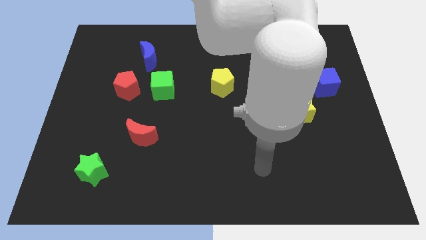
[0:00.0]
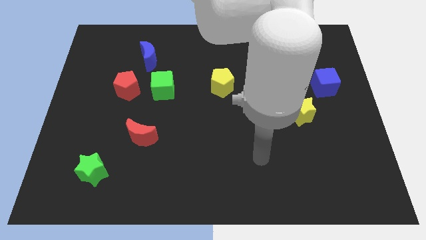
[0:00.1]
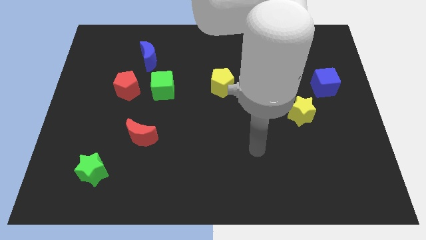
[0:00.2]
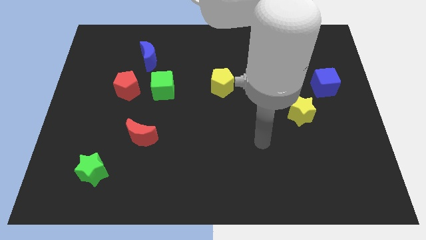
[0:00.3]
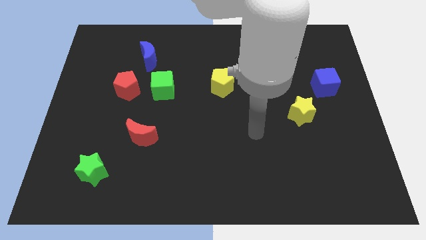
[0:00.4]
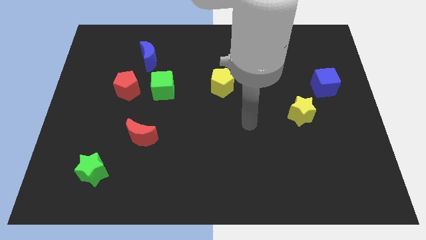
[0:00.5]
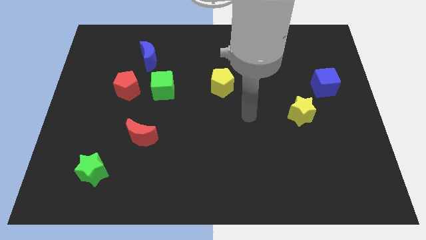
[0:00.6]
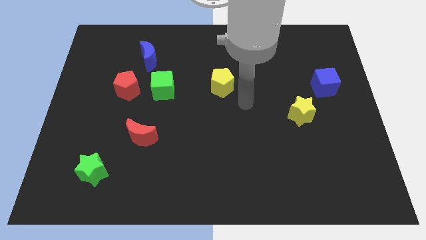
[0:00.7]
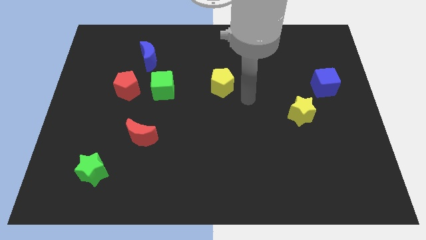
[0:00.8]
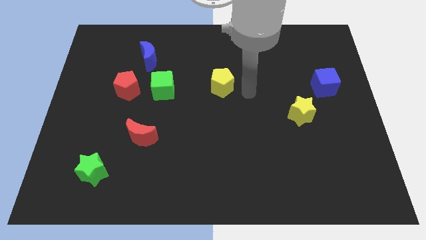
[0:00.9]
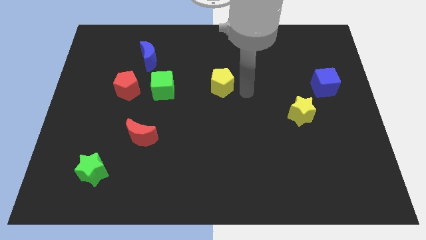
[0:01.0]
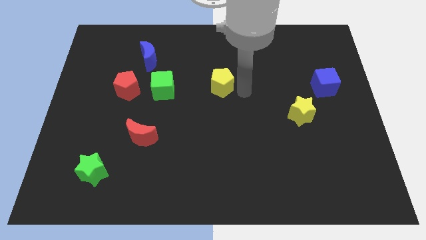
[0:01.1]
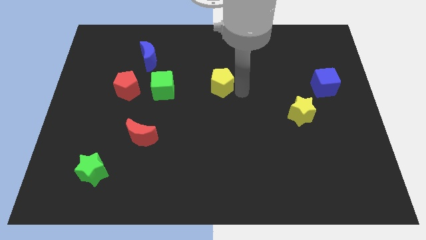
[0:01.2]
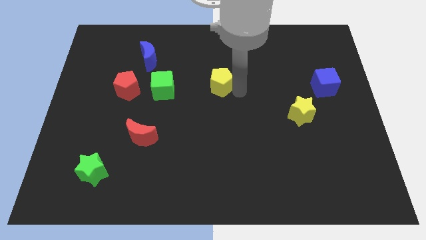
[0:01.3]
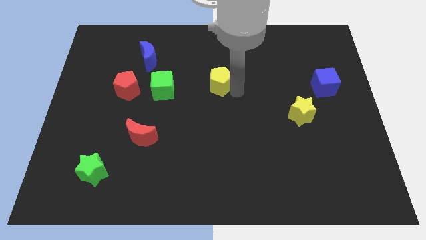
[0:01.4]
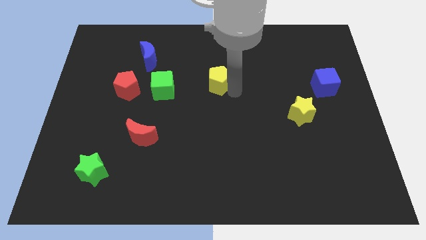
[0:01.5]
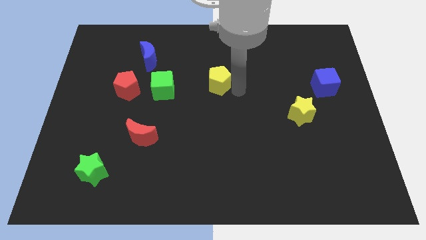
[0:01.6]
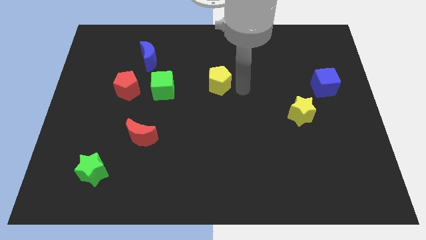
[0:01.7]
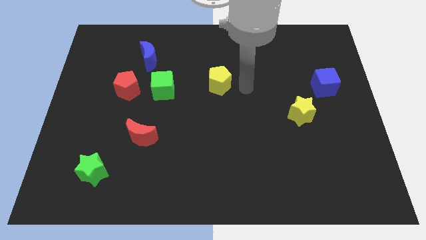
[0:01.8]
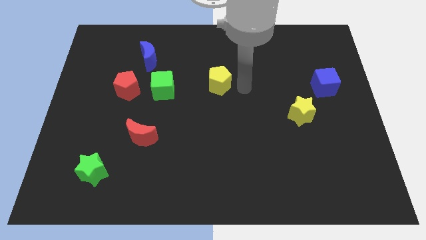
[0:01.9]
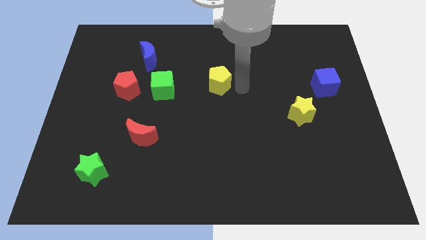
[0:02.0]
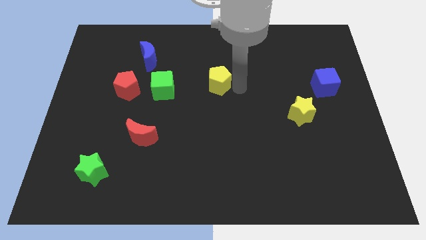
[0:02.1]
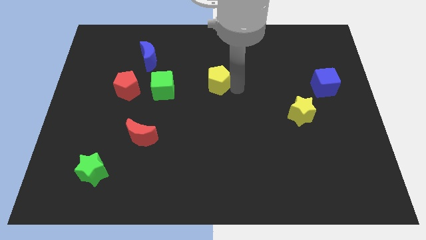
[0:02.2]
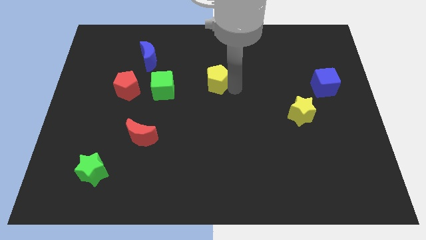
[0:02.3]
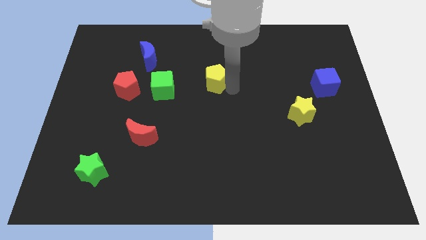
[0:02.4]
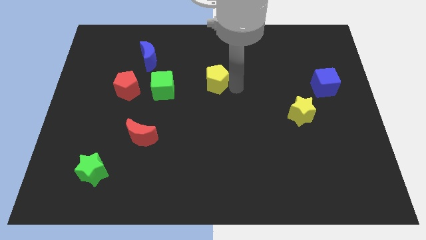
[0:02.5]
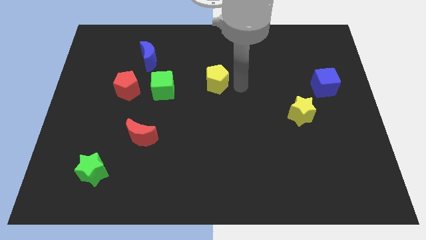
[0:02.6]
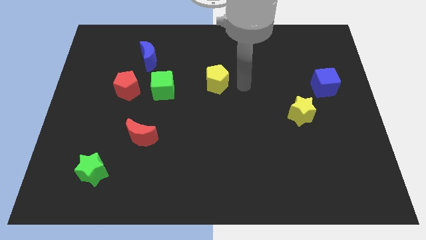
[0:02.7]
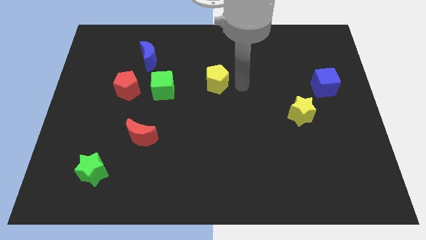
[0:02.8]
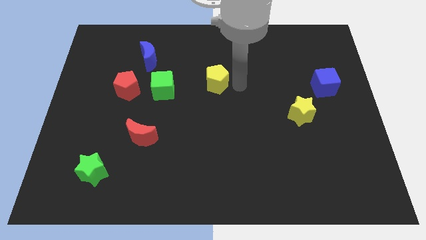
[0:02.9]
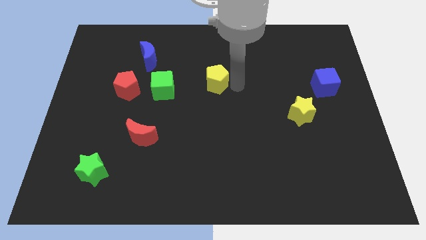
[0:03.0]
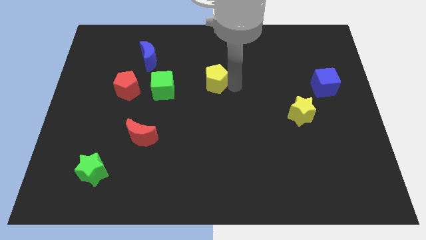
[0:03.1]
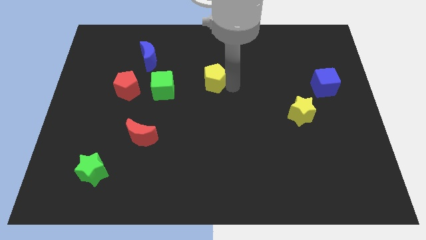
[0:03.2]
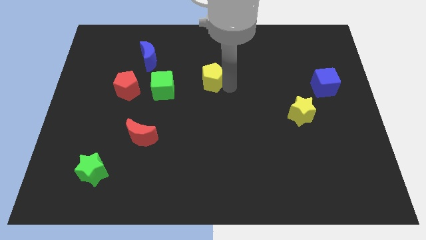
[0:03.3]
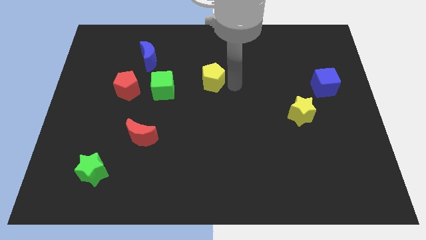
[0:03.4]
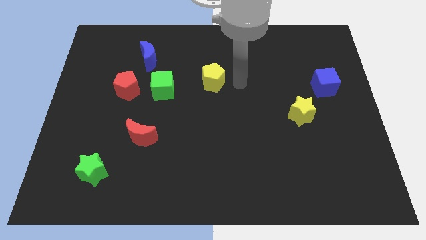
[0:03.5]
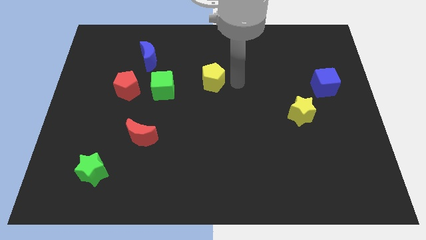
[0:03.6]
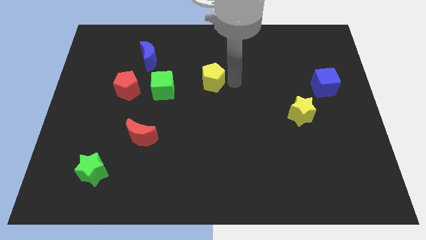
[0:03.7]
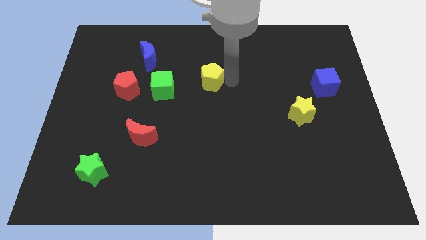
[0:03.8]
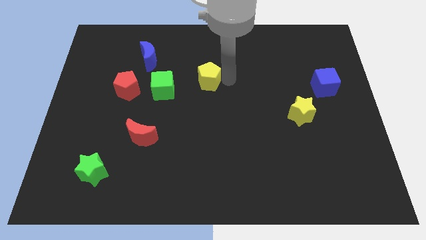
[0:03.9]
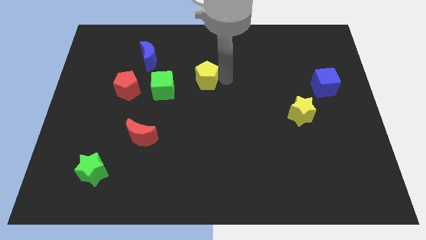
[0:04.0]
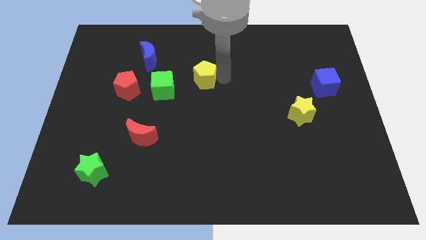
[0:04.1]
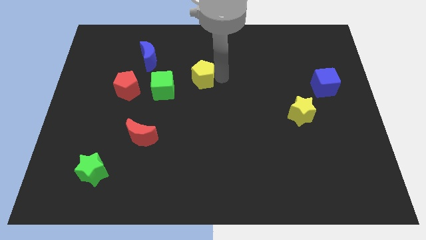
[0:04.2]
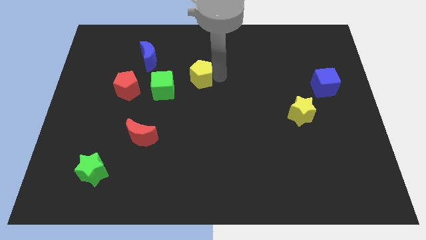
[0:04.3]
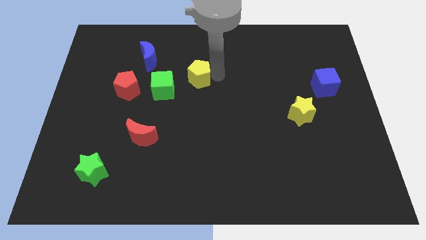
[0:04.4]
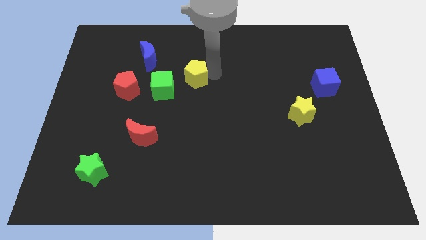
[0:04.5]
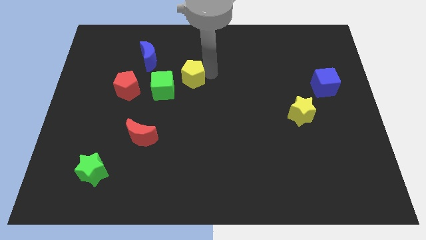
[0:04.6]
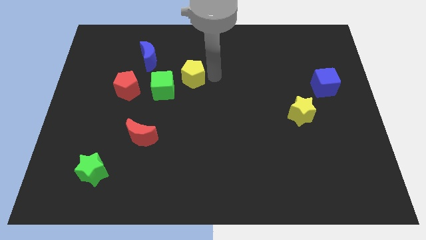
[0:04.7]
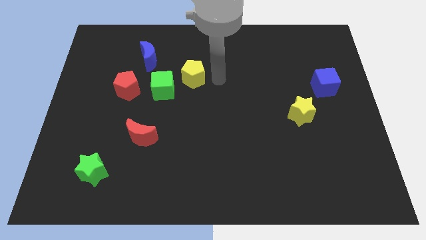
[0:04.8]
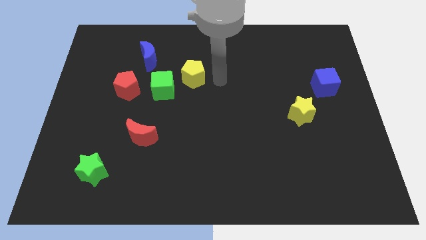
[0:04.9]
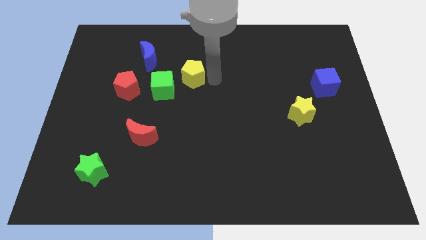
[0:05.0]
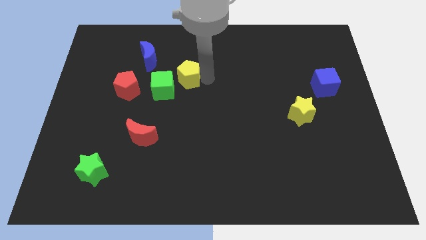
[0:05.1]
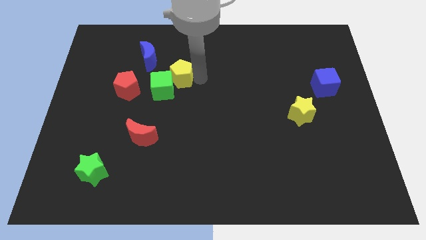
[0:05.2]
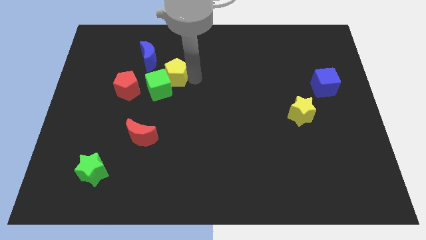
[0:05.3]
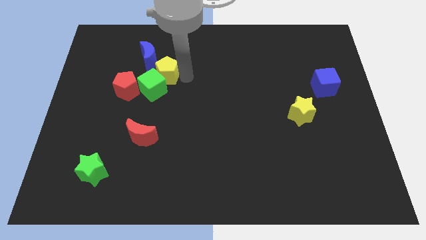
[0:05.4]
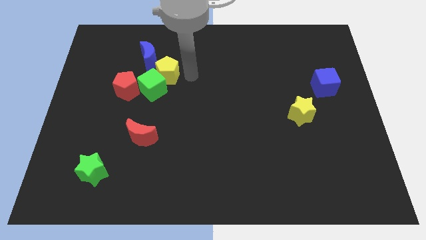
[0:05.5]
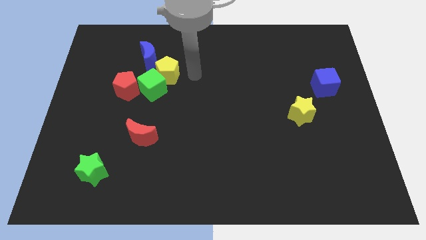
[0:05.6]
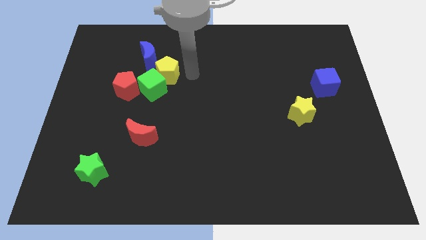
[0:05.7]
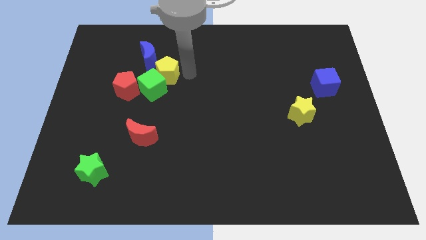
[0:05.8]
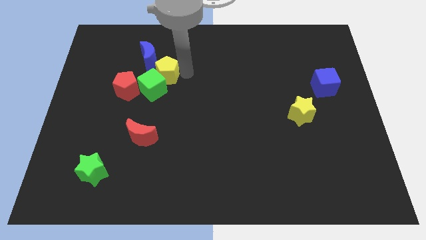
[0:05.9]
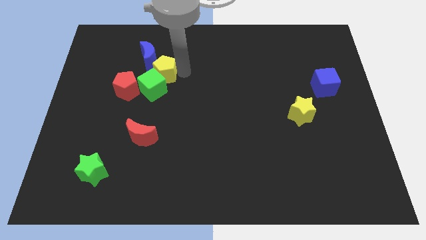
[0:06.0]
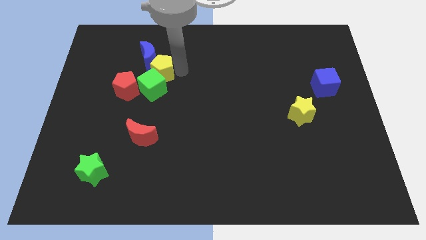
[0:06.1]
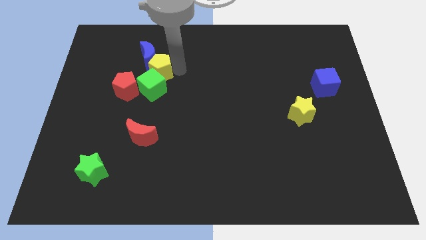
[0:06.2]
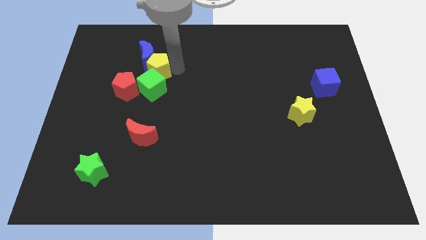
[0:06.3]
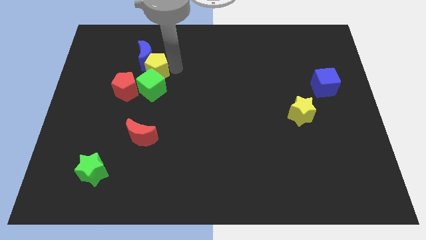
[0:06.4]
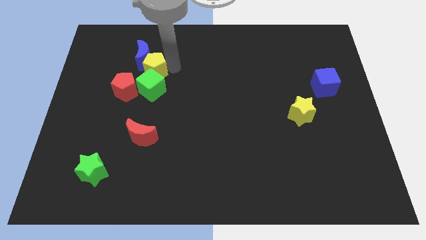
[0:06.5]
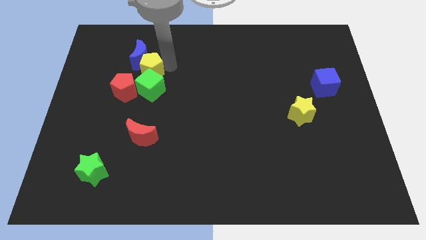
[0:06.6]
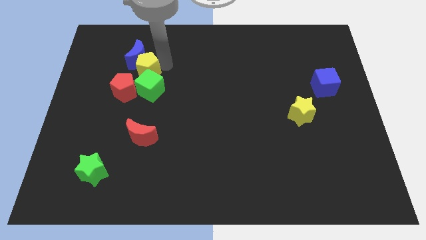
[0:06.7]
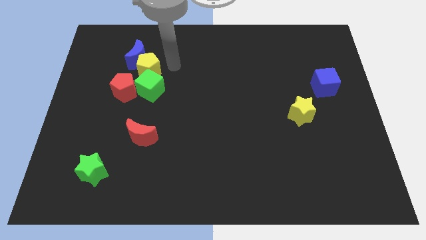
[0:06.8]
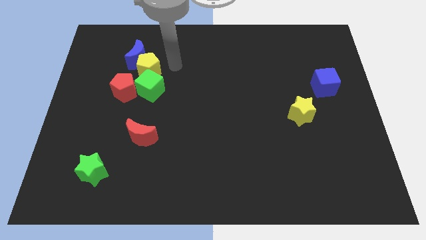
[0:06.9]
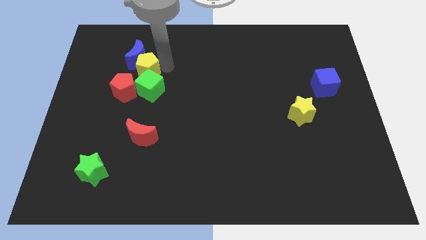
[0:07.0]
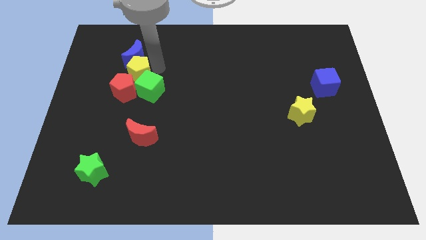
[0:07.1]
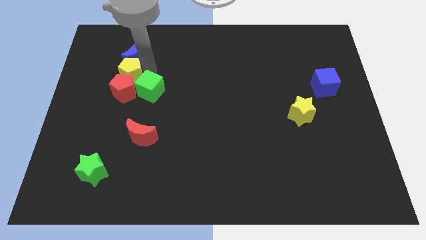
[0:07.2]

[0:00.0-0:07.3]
move the yellow pentagon to the top left of the red pentagon

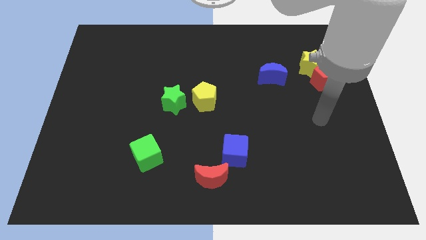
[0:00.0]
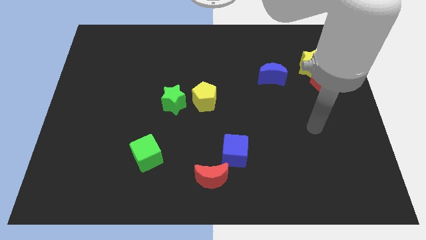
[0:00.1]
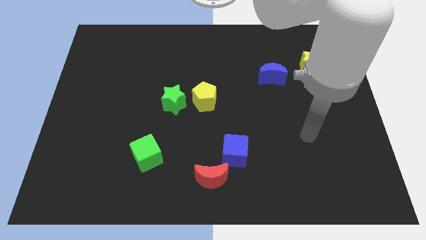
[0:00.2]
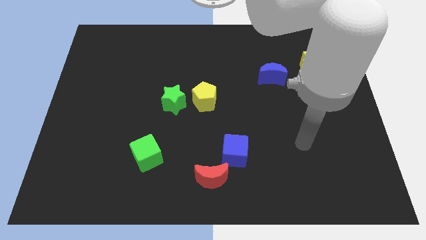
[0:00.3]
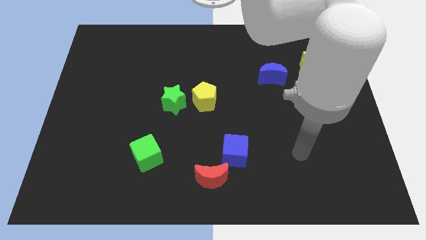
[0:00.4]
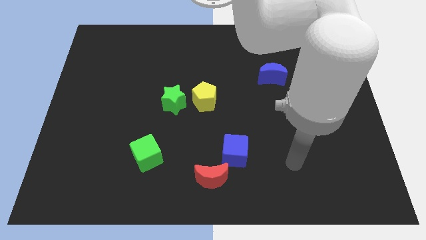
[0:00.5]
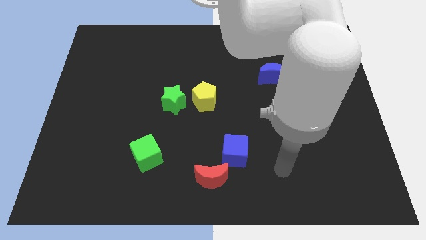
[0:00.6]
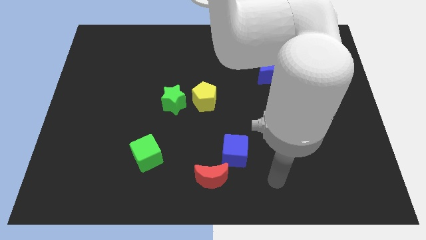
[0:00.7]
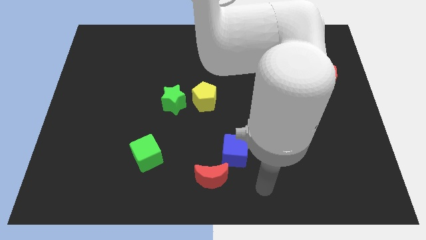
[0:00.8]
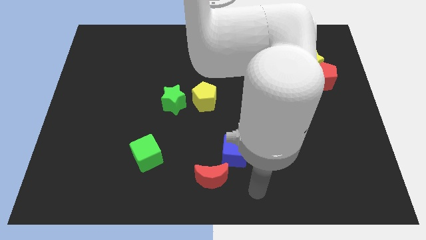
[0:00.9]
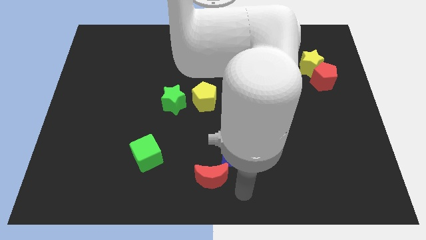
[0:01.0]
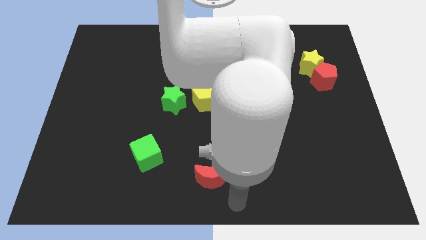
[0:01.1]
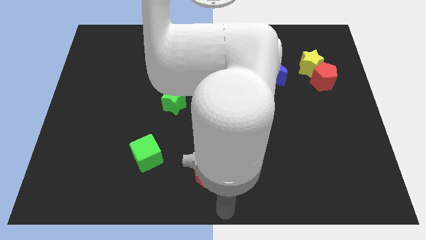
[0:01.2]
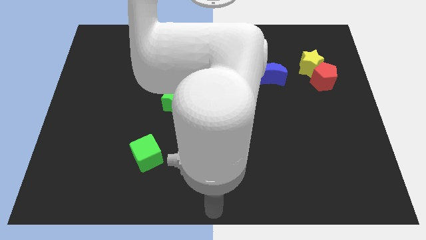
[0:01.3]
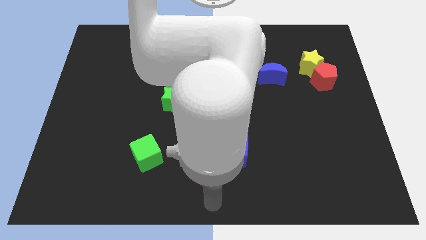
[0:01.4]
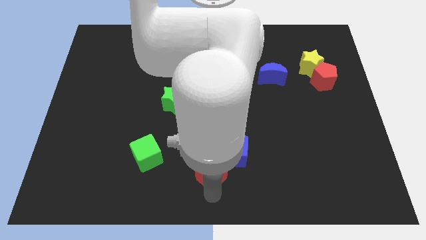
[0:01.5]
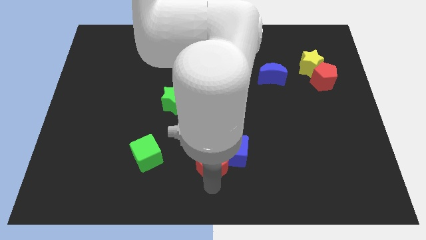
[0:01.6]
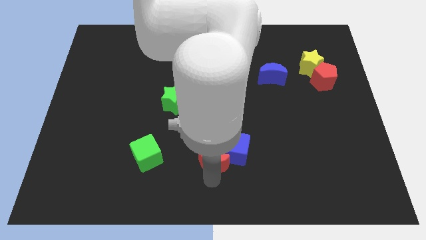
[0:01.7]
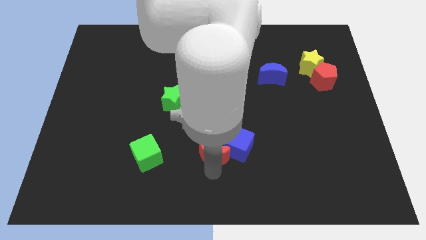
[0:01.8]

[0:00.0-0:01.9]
push the red moon to the bottom side of the yellow pentagon
